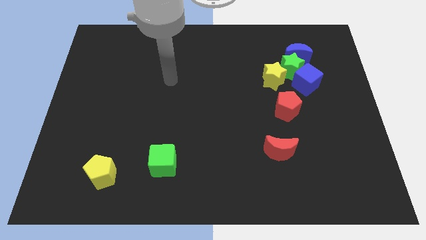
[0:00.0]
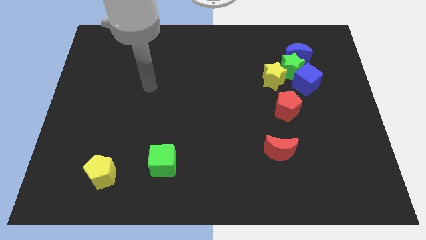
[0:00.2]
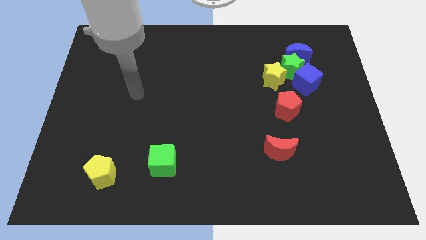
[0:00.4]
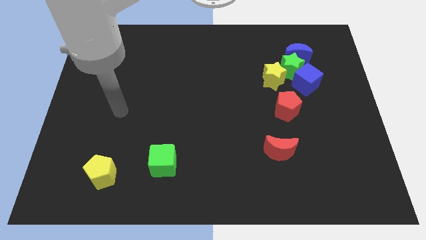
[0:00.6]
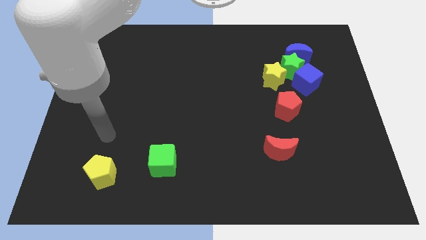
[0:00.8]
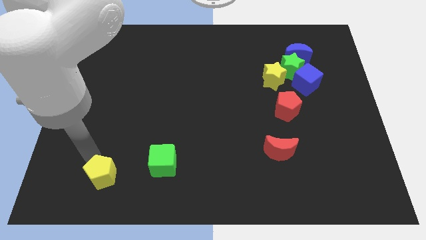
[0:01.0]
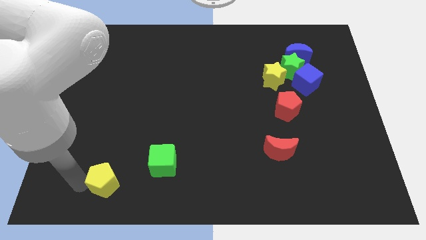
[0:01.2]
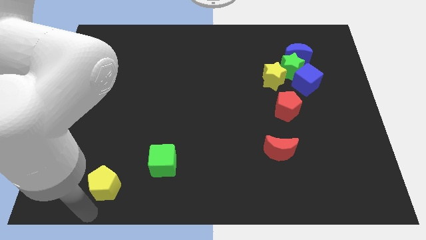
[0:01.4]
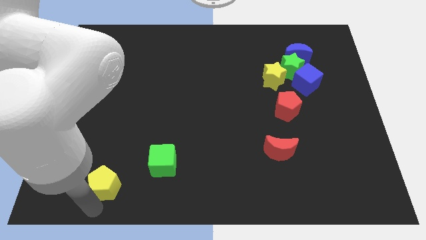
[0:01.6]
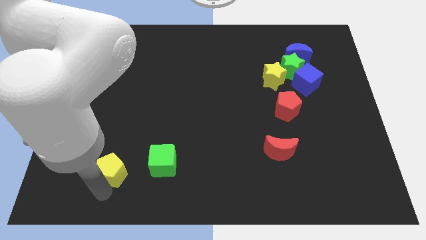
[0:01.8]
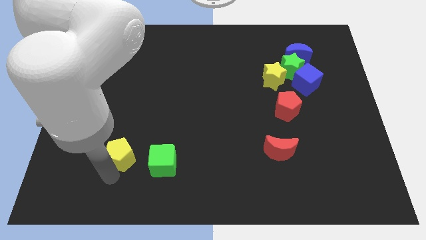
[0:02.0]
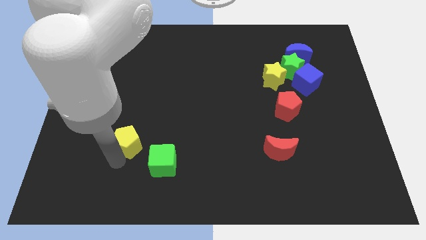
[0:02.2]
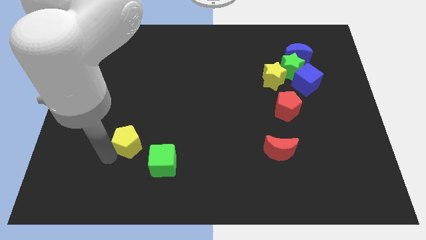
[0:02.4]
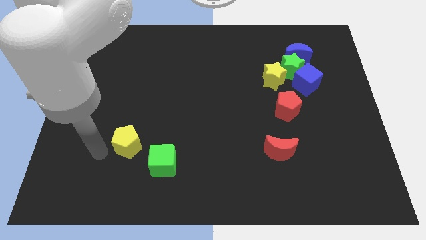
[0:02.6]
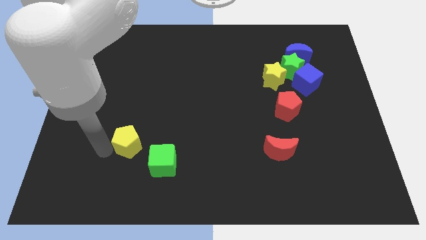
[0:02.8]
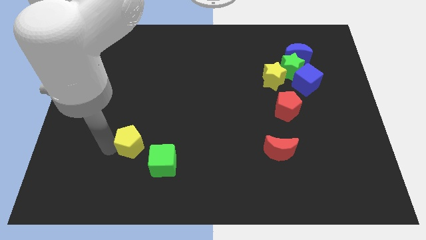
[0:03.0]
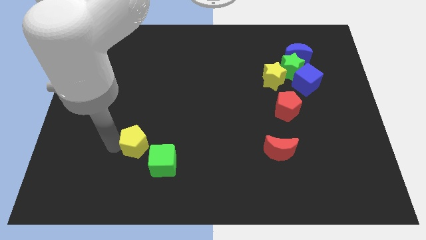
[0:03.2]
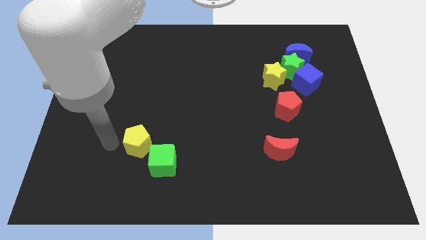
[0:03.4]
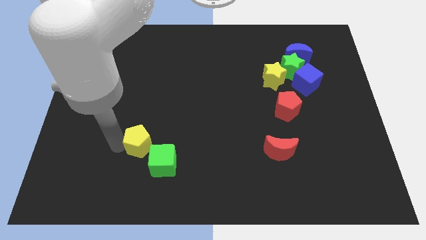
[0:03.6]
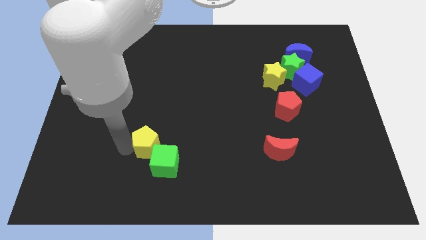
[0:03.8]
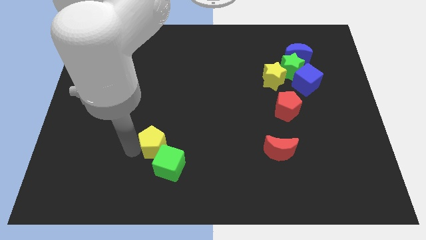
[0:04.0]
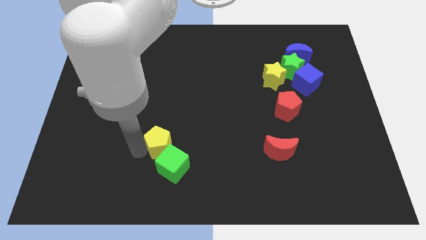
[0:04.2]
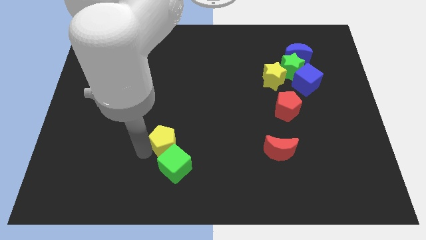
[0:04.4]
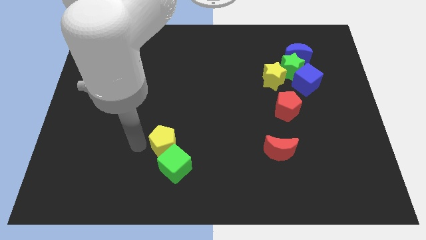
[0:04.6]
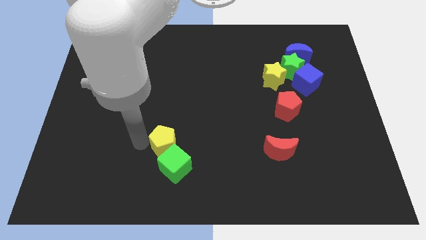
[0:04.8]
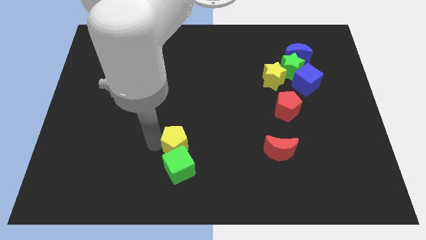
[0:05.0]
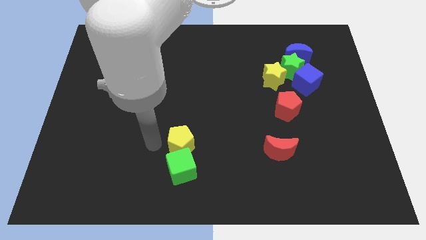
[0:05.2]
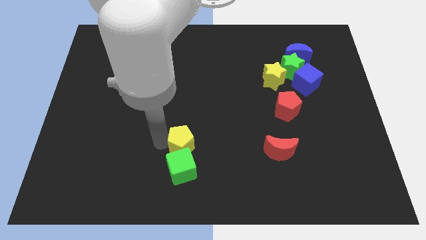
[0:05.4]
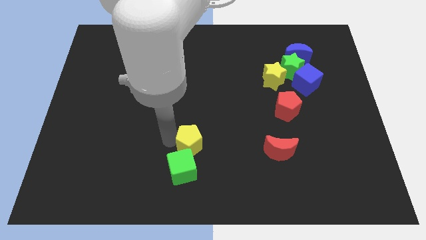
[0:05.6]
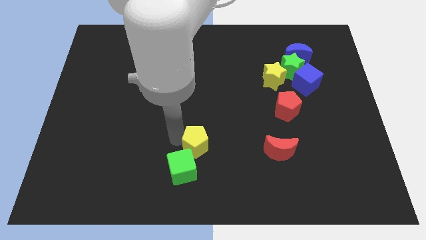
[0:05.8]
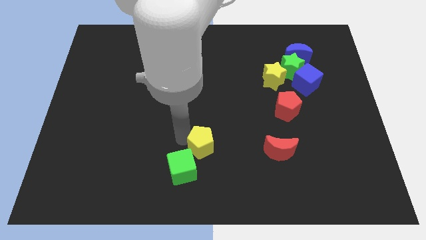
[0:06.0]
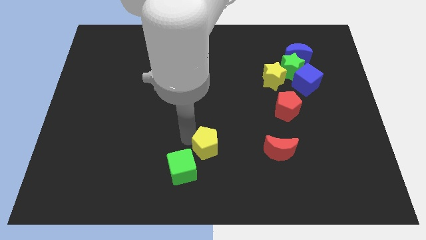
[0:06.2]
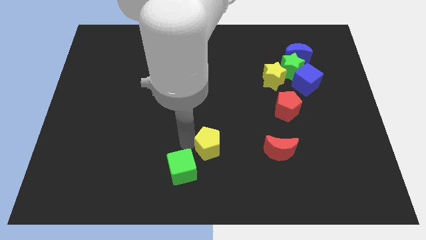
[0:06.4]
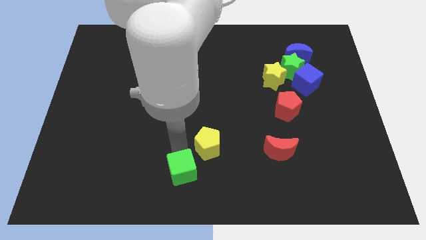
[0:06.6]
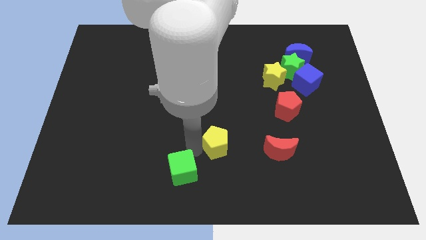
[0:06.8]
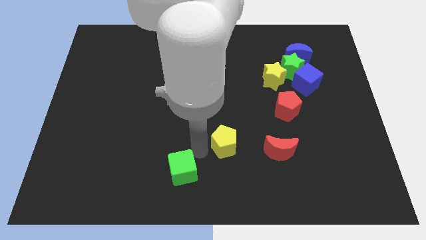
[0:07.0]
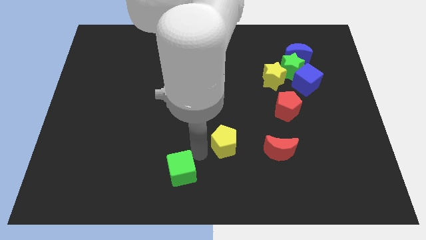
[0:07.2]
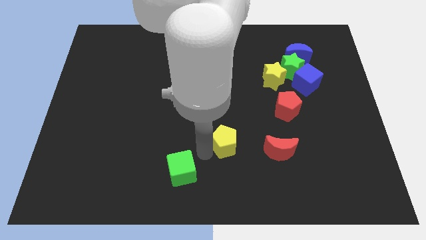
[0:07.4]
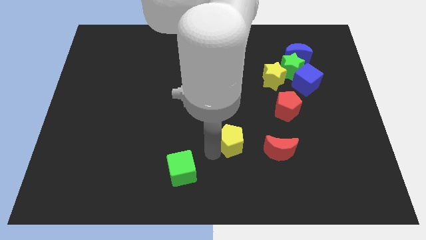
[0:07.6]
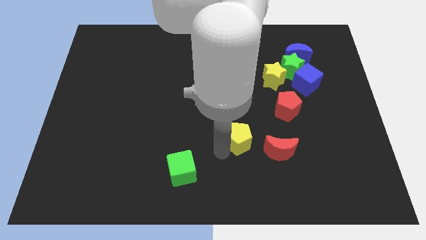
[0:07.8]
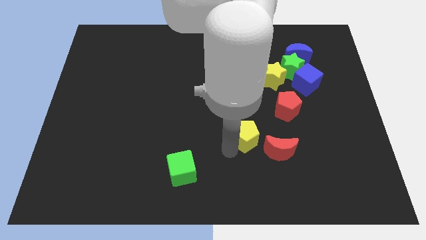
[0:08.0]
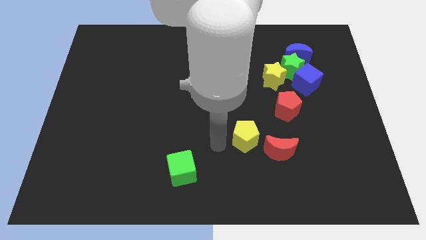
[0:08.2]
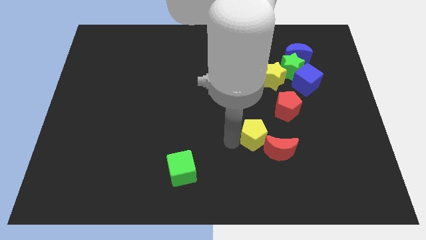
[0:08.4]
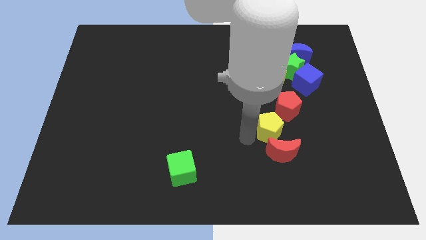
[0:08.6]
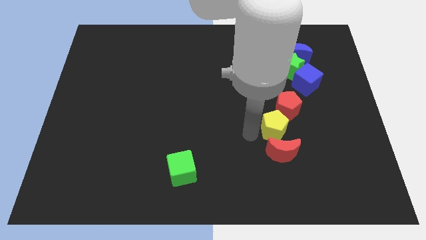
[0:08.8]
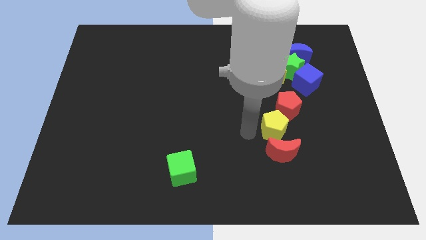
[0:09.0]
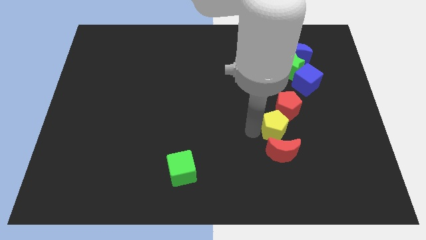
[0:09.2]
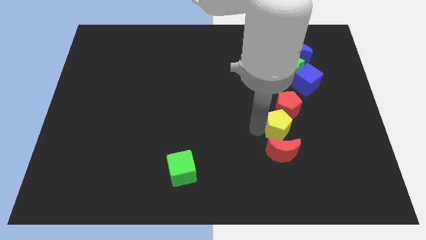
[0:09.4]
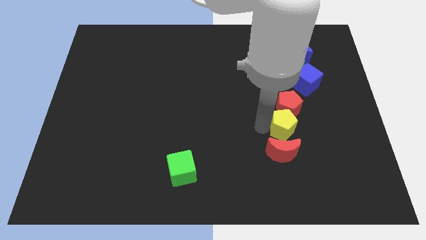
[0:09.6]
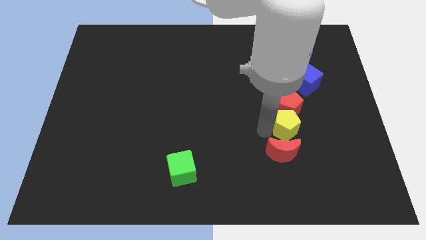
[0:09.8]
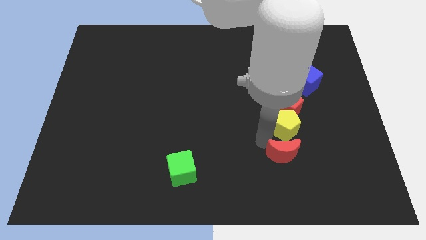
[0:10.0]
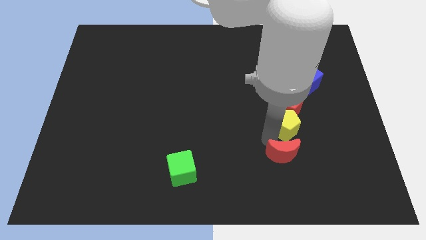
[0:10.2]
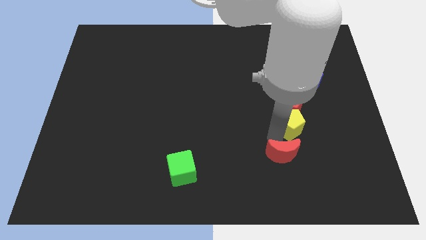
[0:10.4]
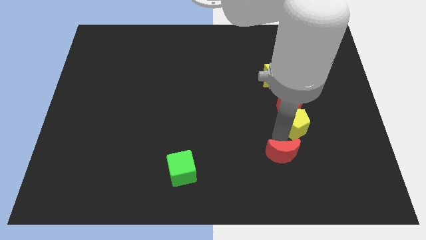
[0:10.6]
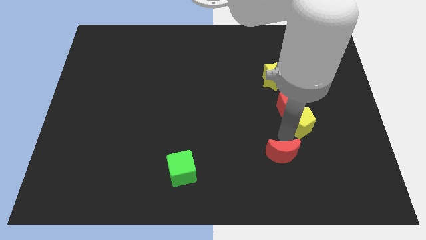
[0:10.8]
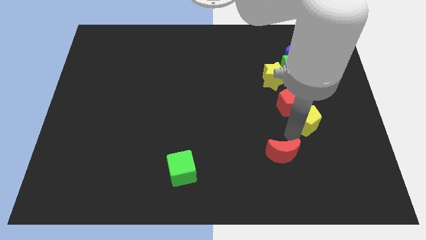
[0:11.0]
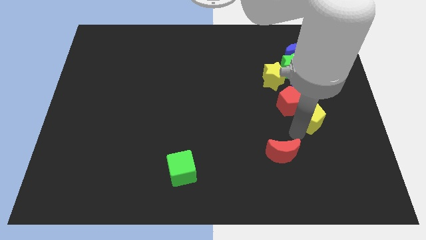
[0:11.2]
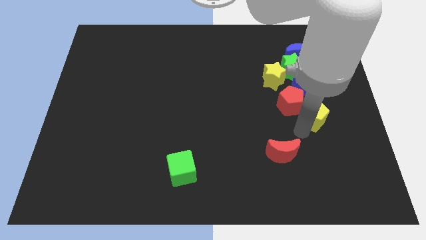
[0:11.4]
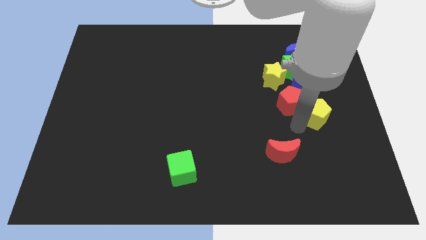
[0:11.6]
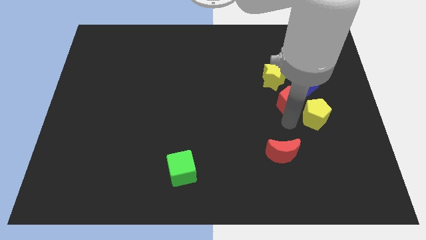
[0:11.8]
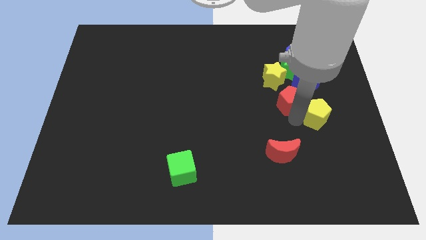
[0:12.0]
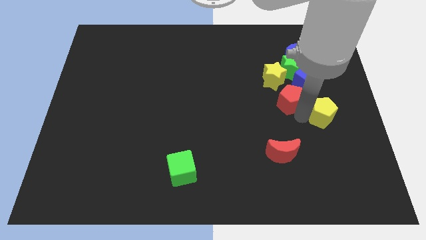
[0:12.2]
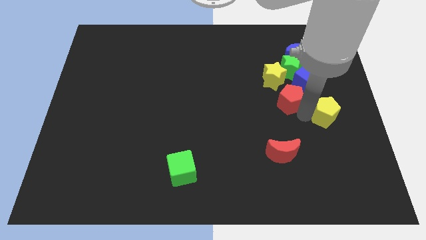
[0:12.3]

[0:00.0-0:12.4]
put the yellow pentagon to the right side of the board
